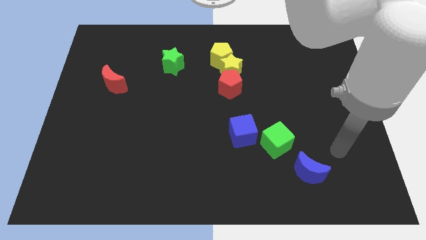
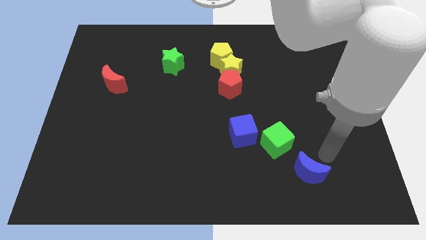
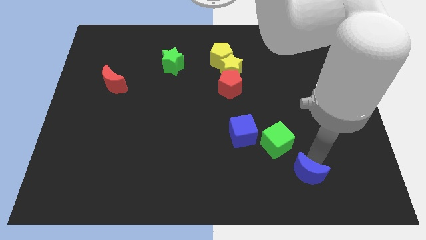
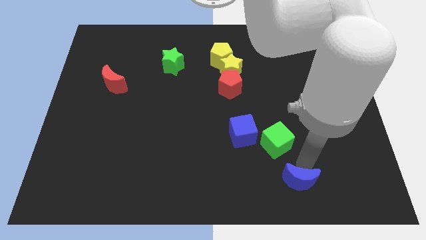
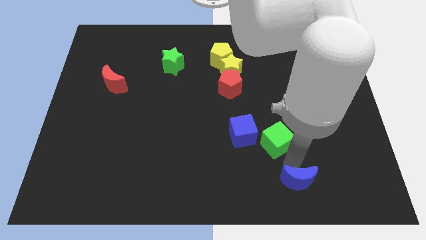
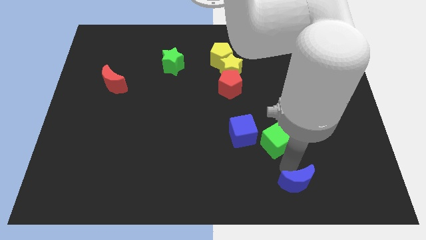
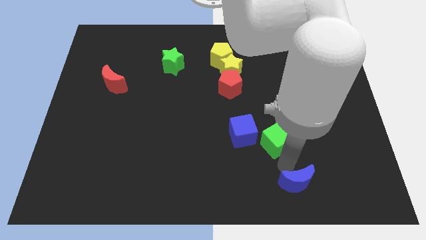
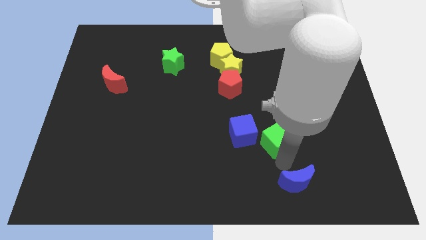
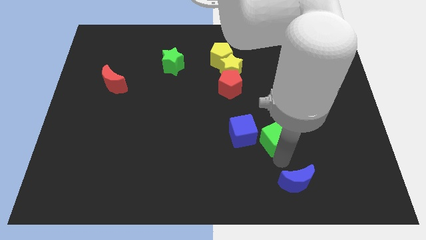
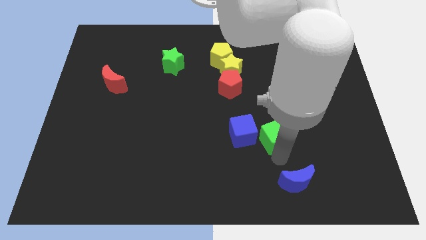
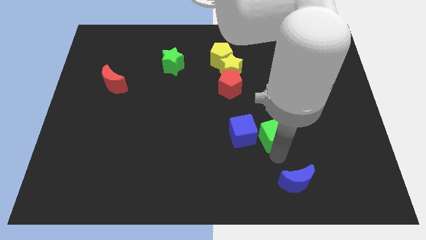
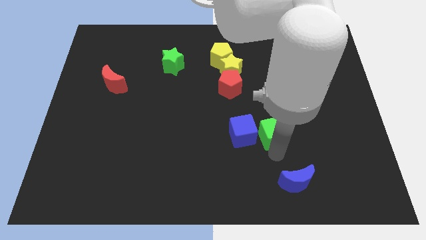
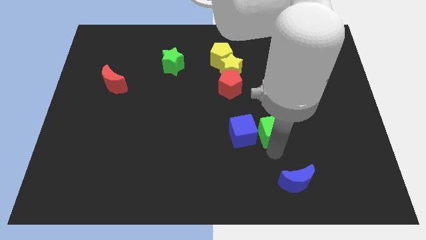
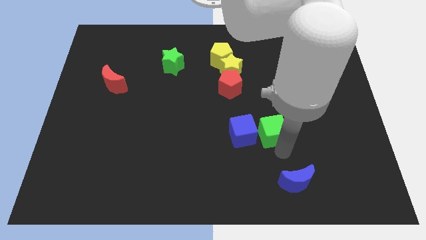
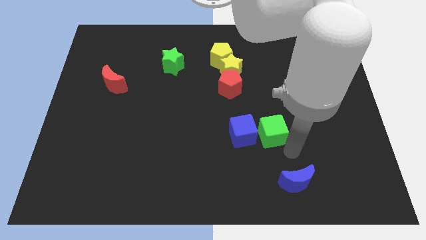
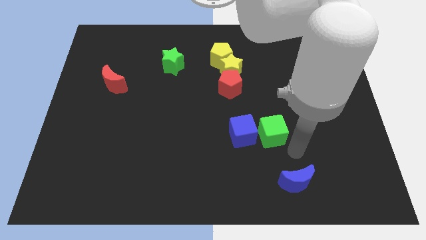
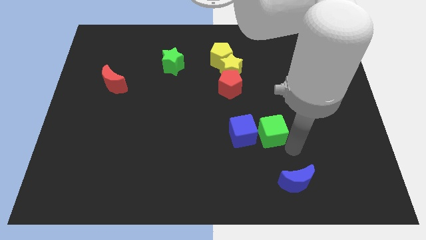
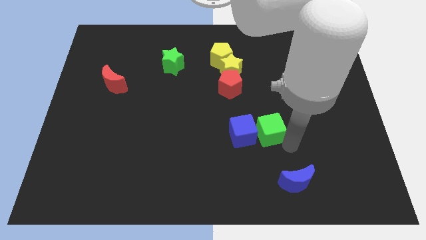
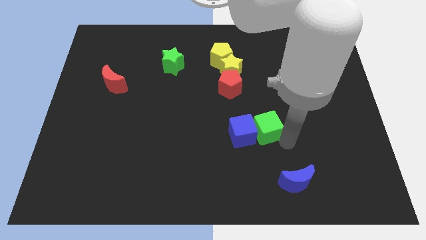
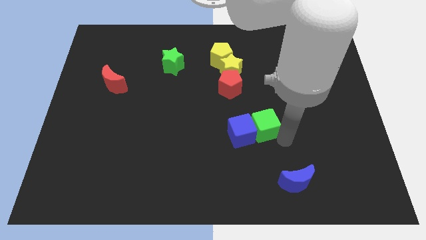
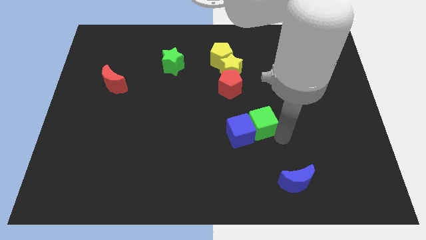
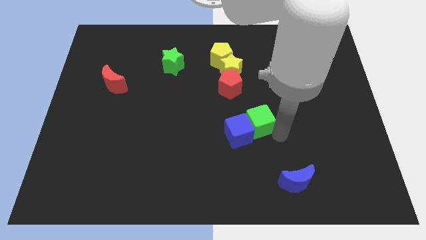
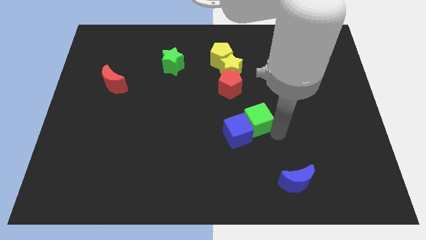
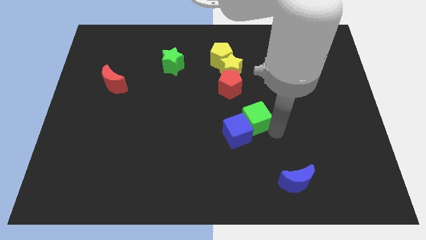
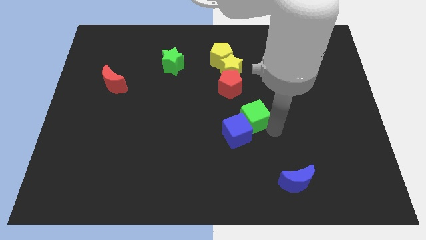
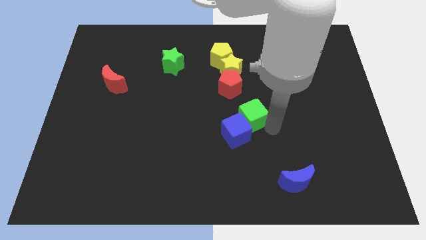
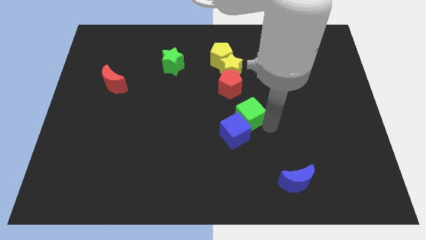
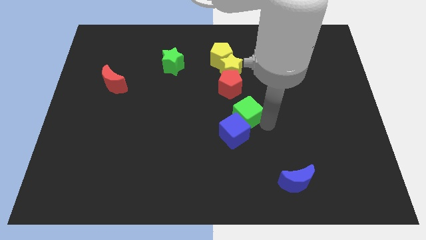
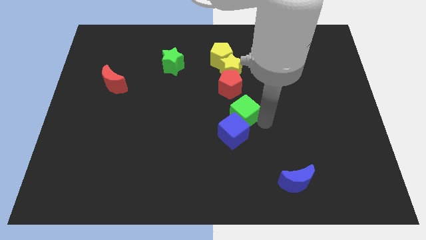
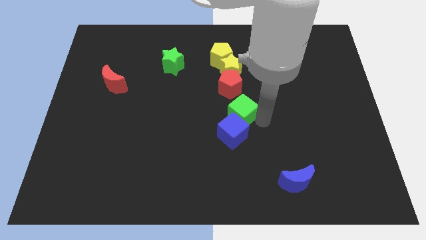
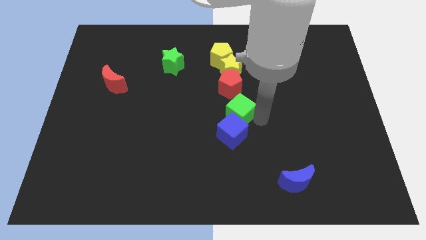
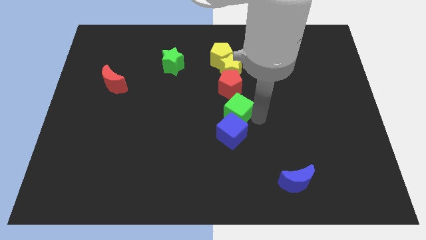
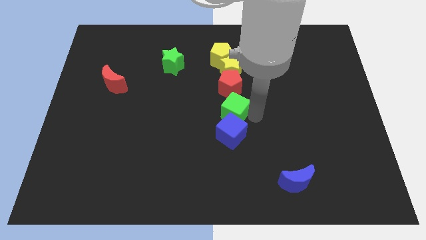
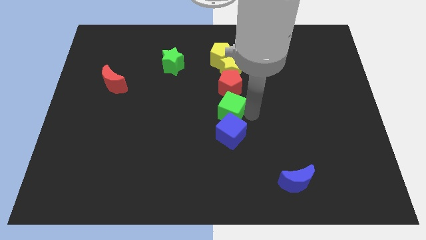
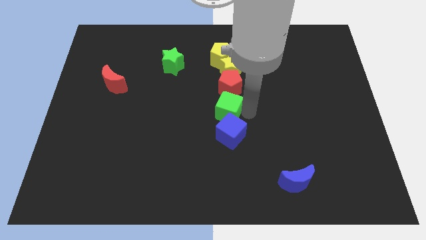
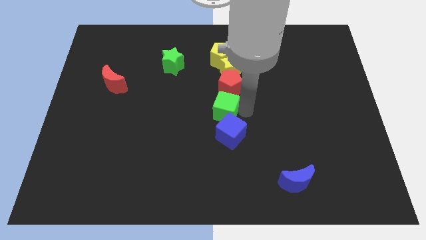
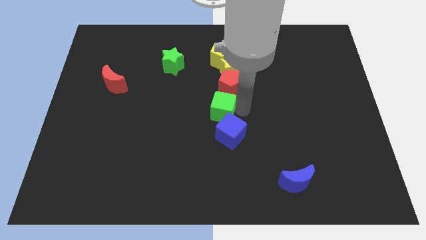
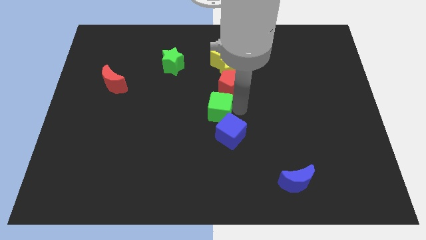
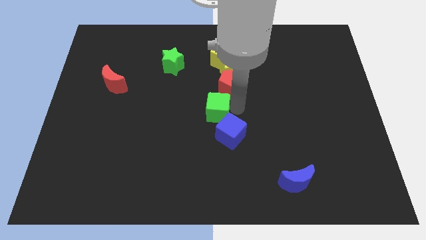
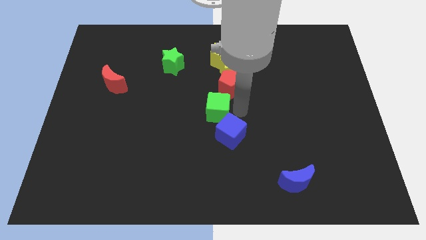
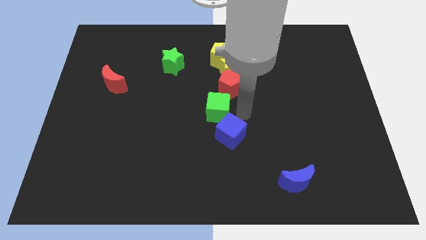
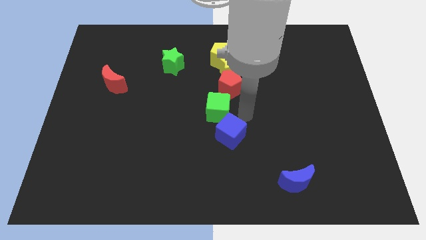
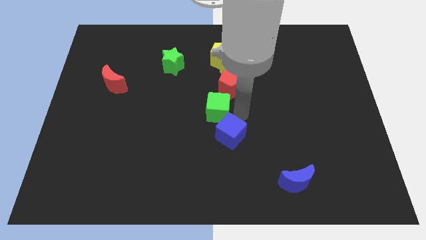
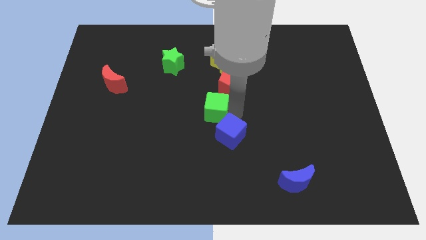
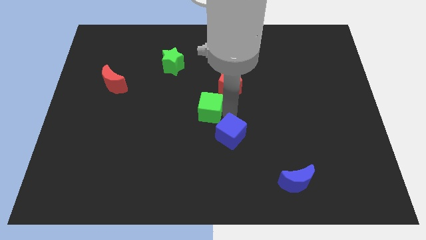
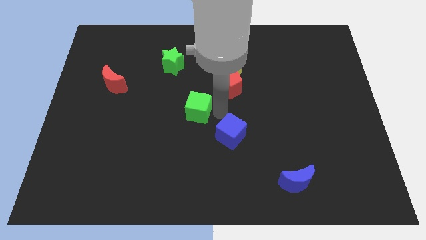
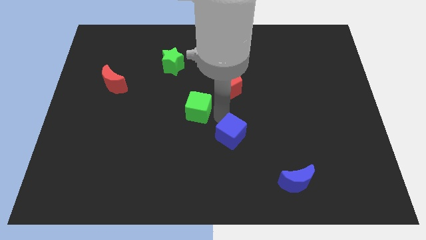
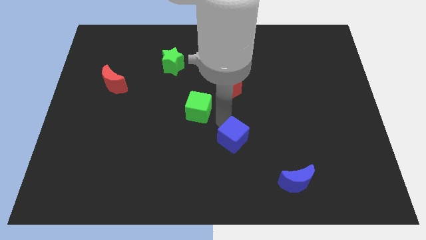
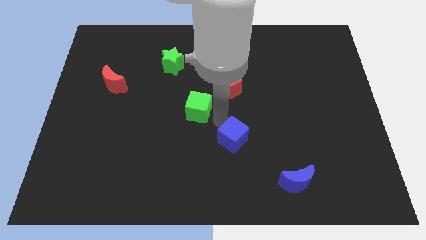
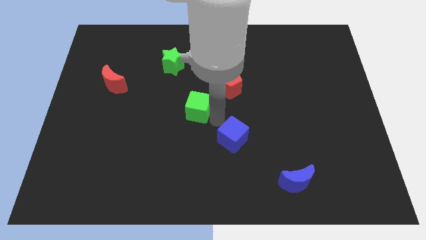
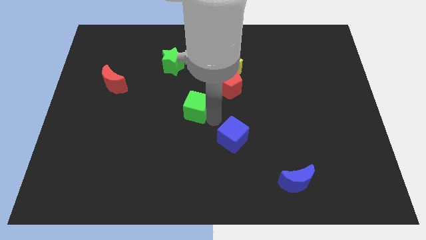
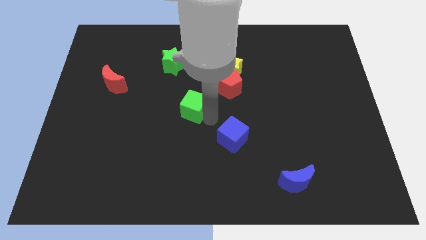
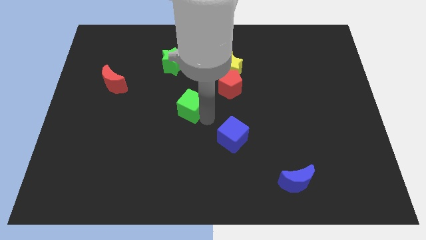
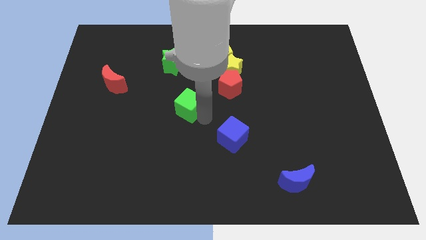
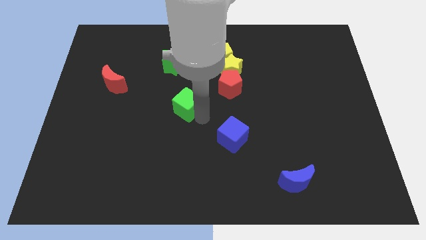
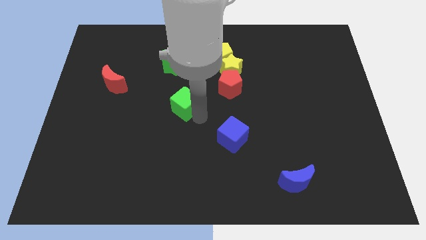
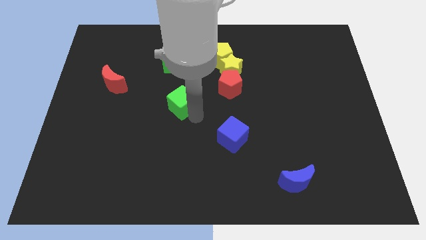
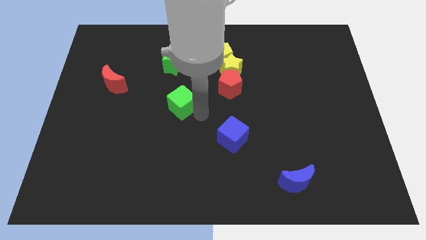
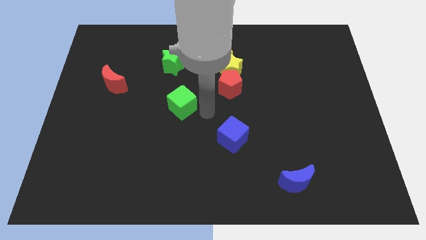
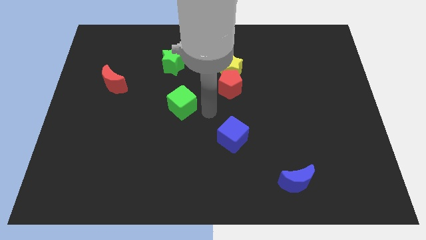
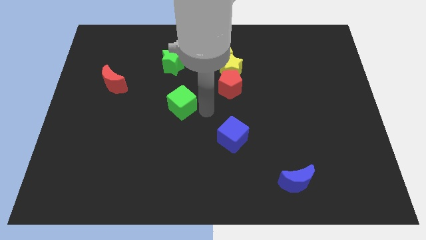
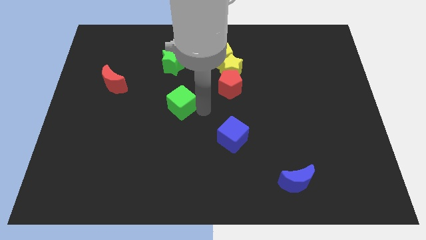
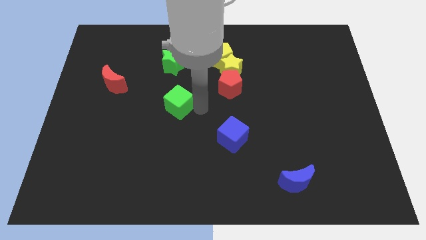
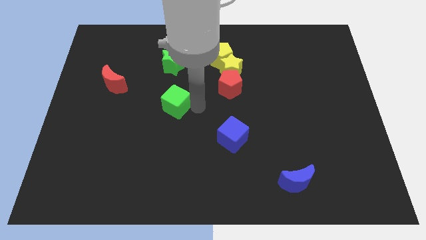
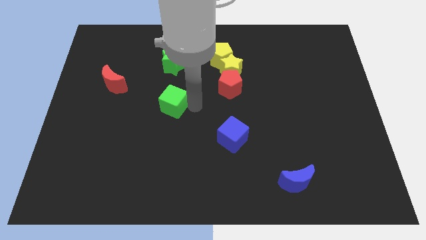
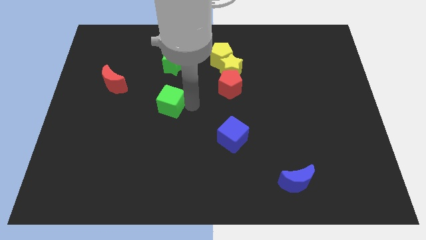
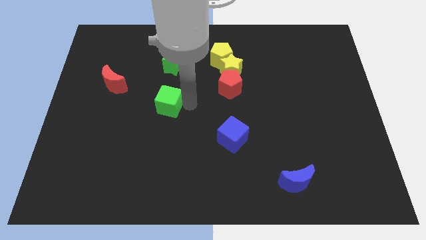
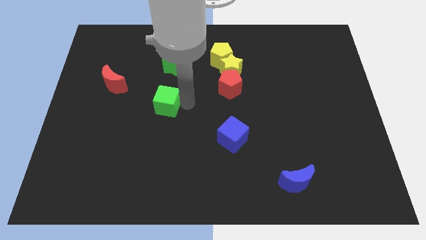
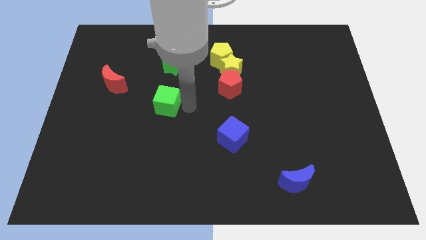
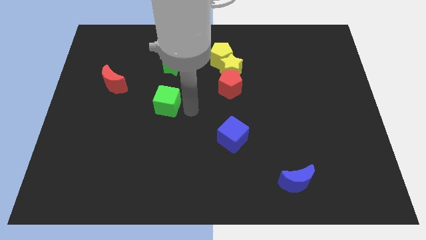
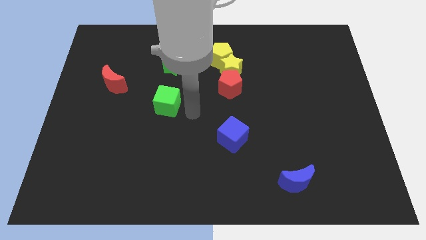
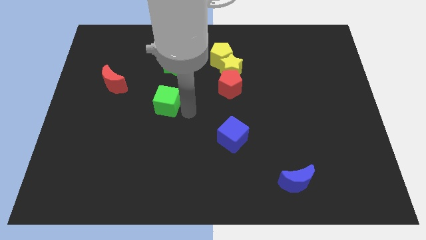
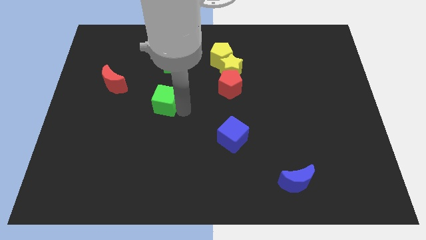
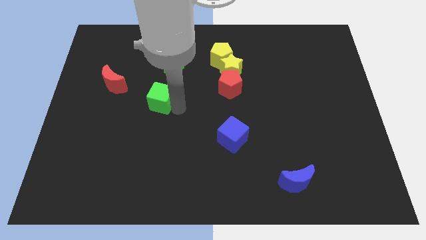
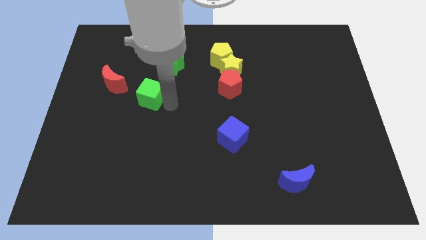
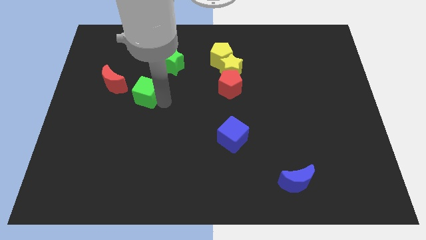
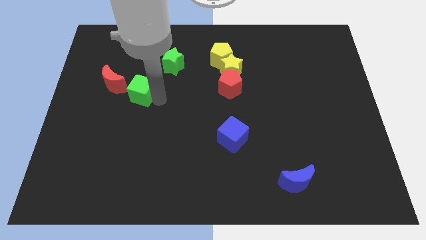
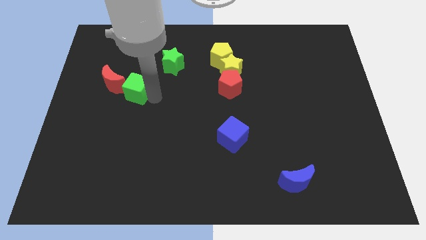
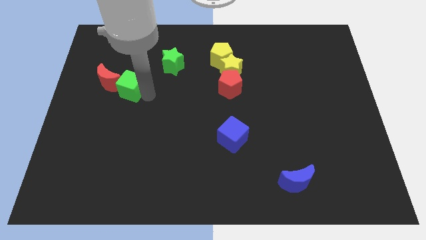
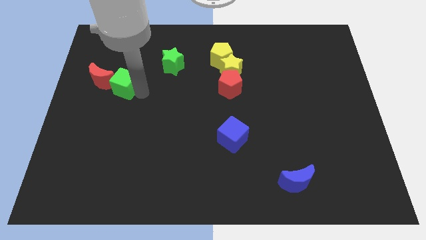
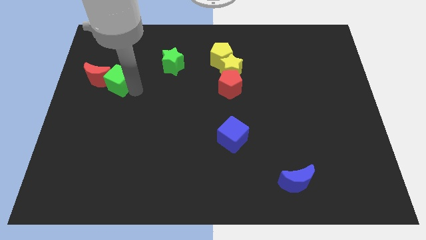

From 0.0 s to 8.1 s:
put the green cube next to the red moon
